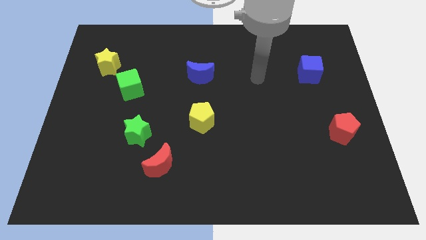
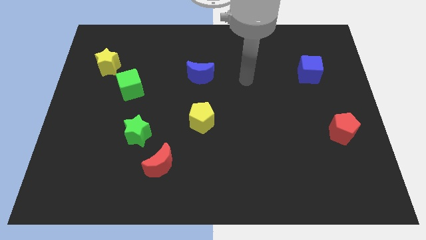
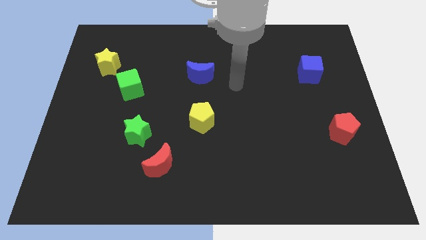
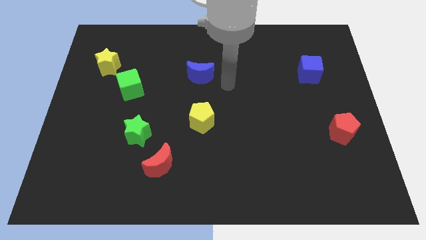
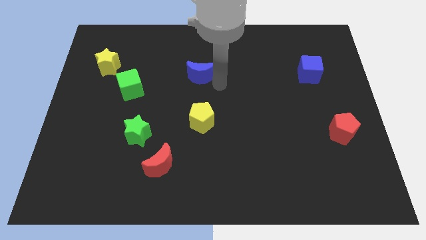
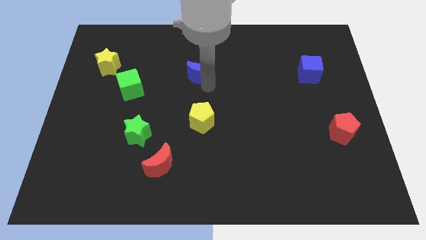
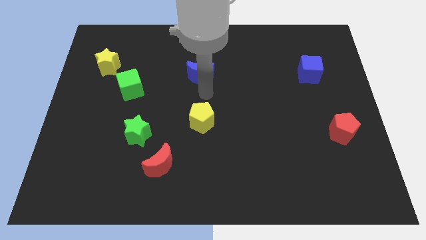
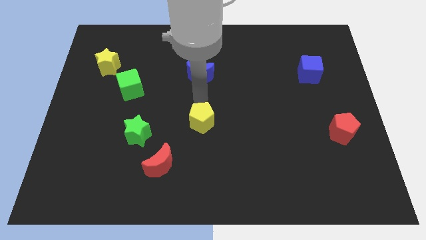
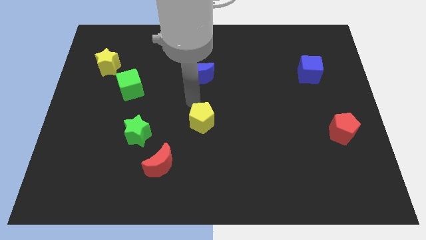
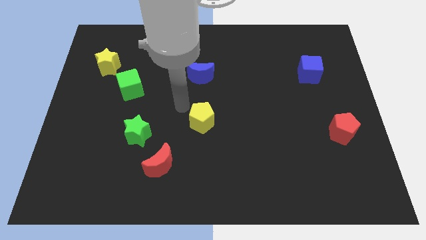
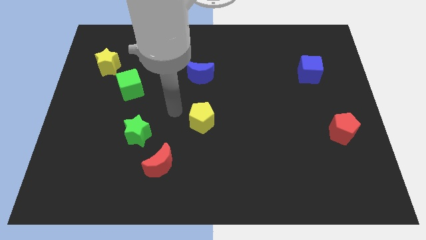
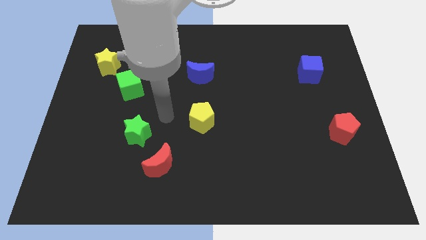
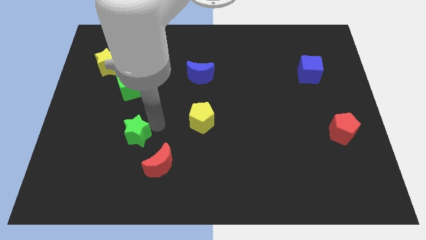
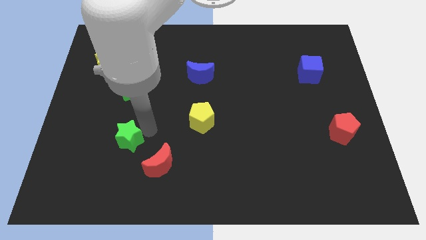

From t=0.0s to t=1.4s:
pull the red moon apart from the green star

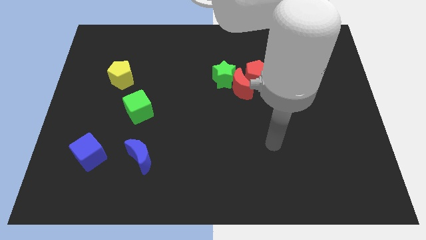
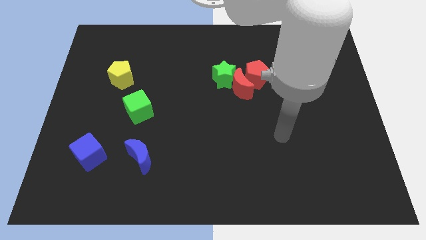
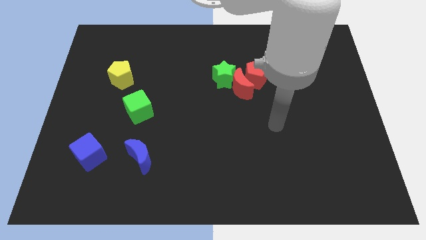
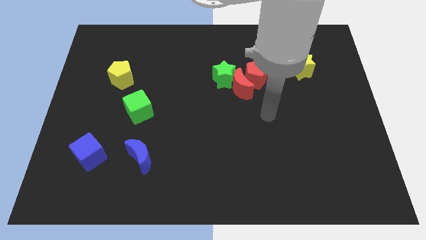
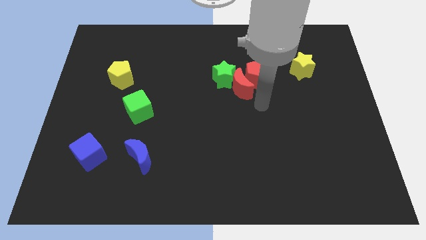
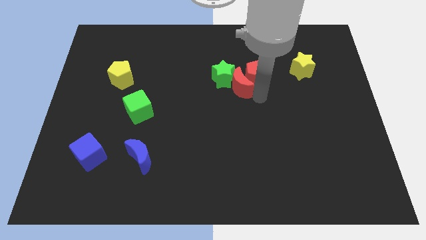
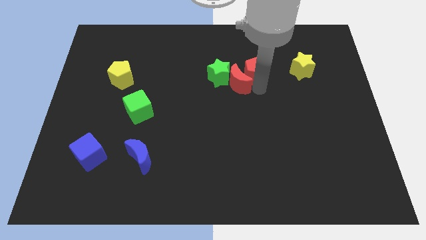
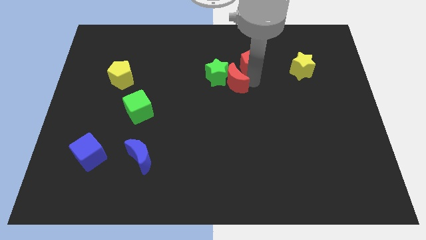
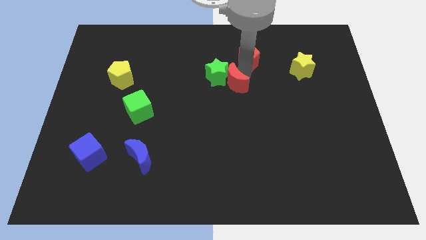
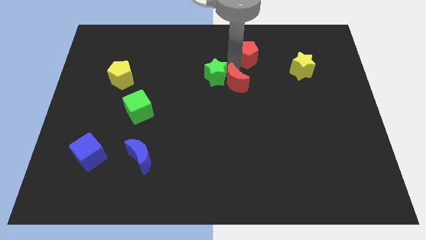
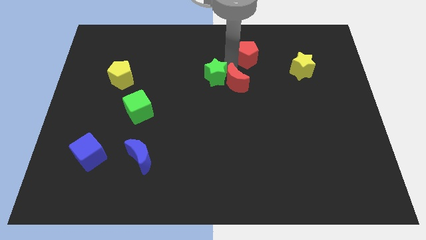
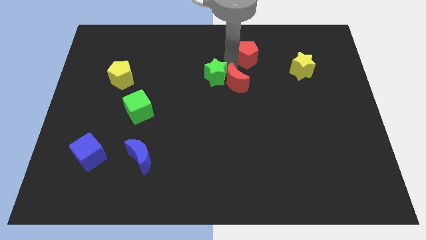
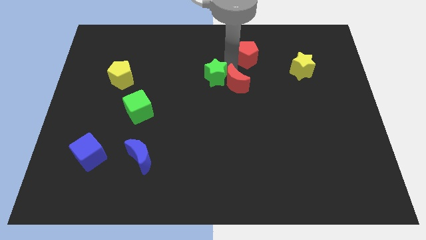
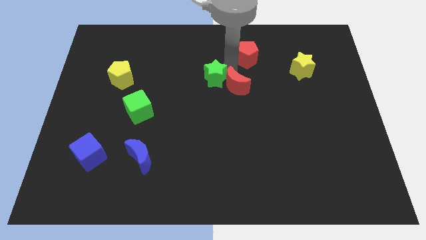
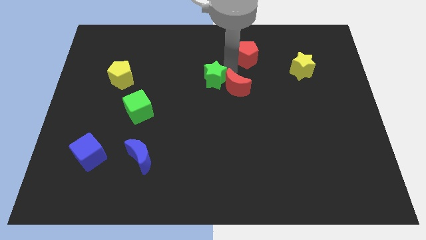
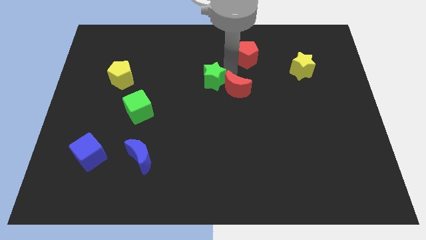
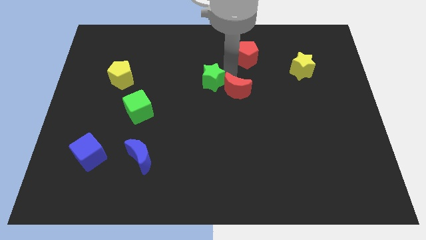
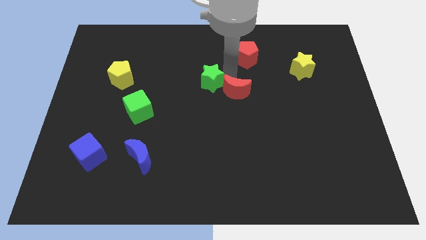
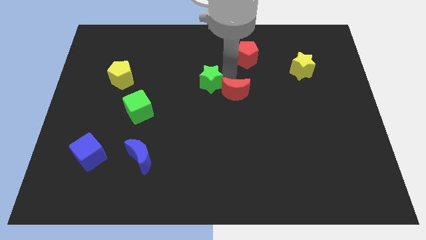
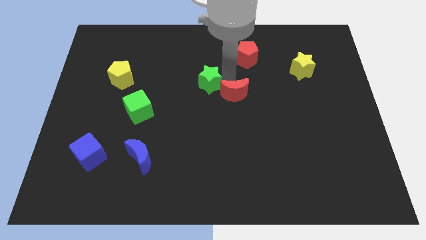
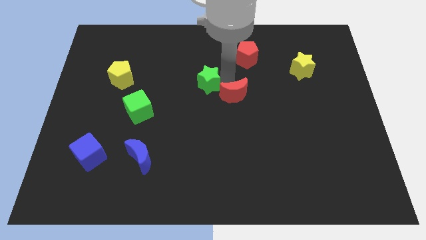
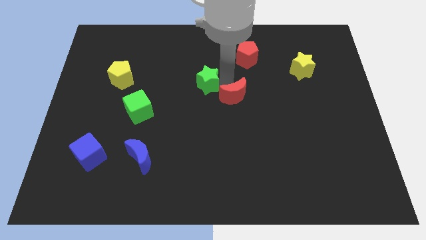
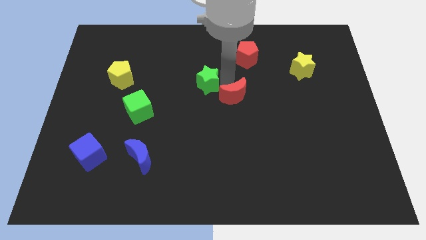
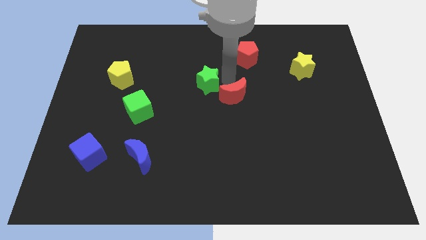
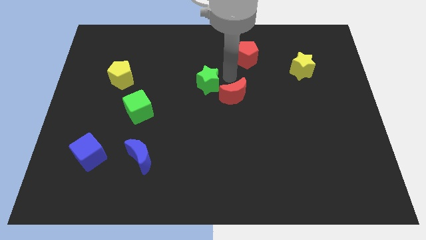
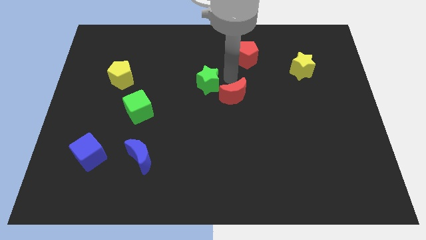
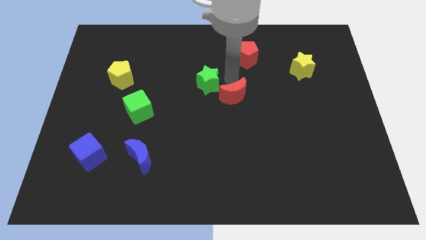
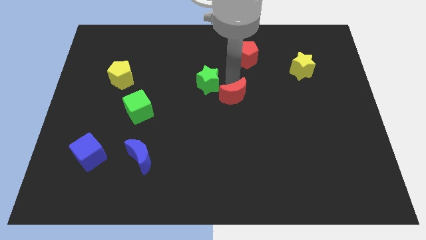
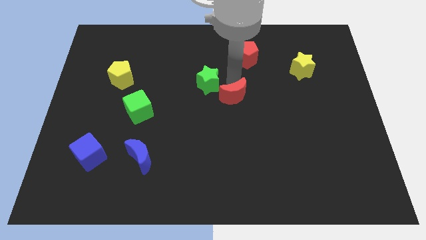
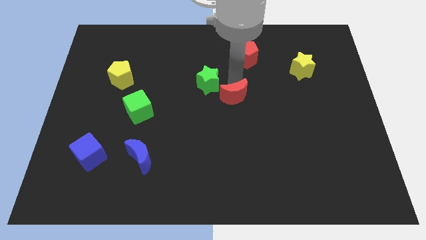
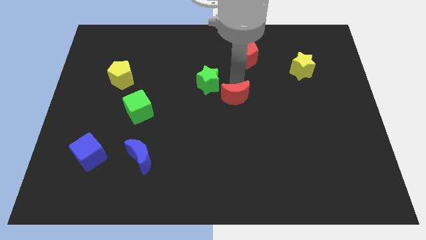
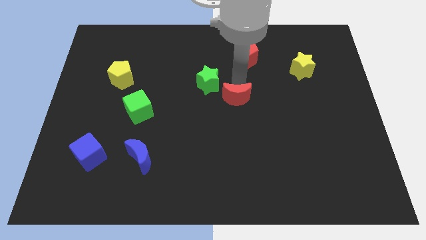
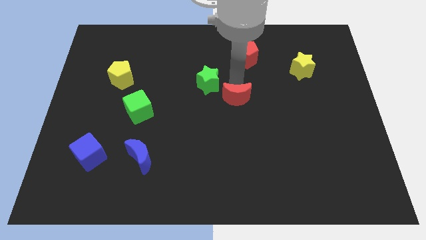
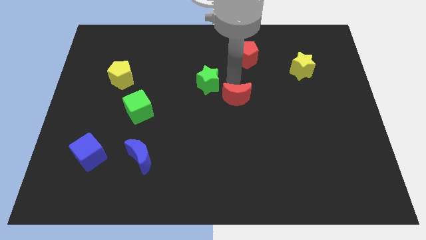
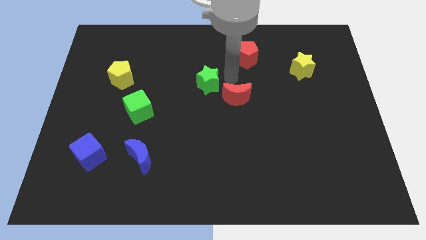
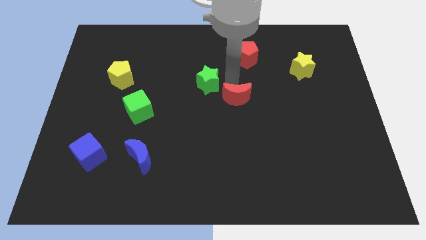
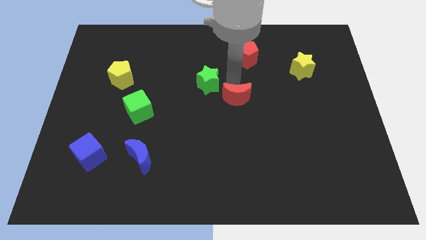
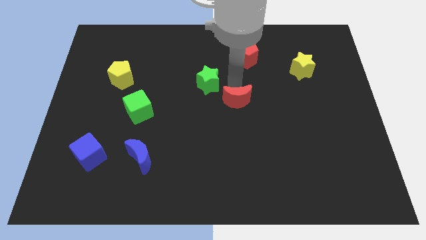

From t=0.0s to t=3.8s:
separate the red moon from the red pentagon and green star

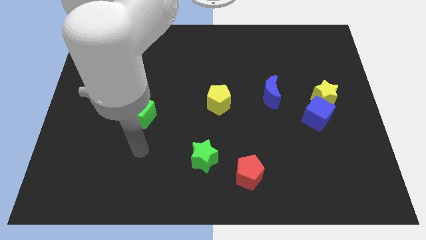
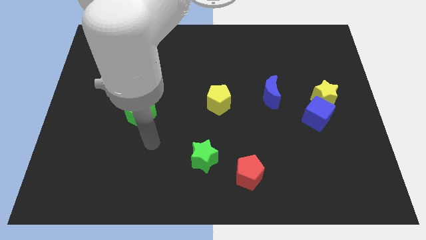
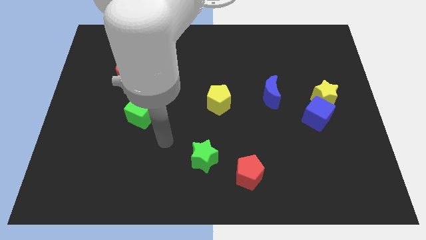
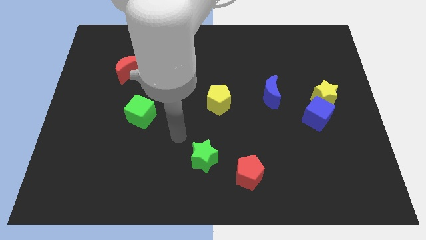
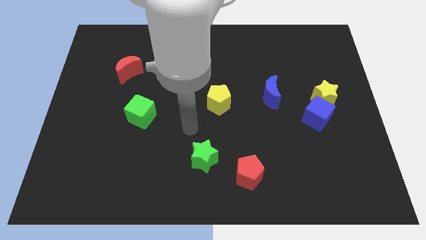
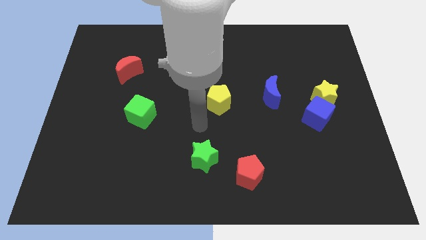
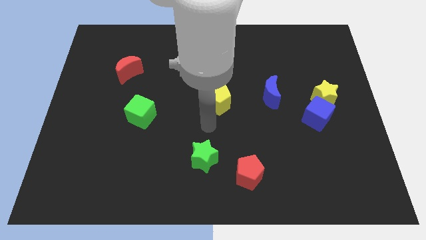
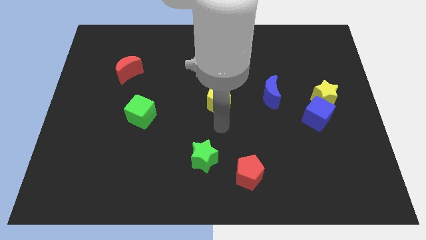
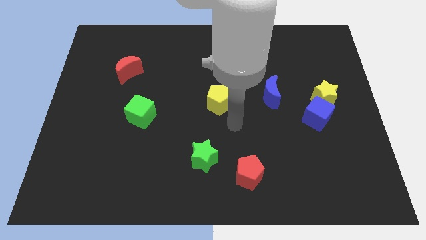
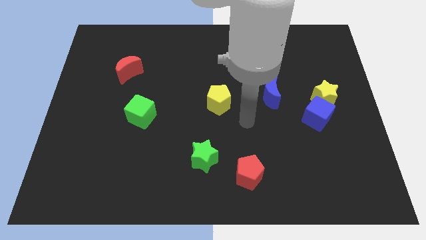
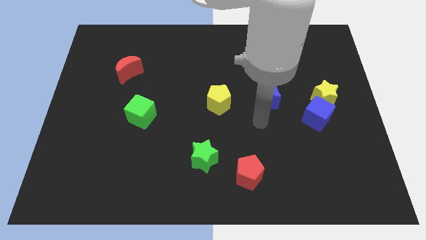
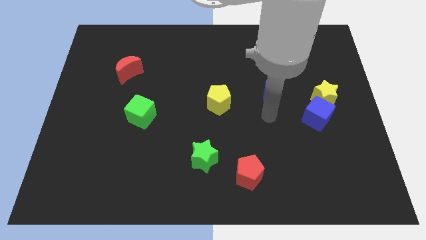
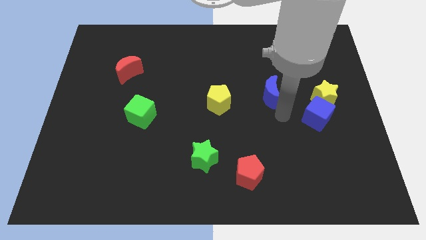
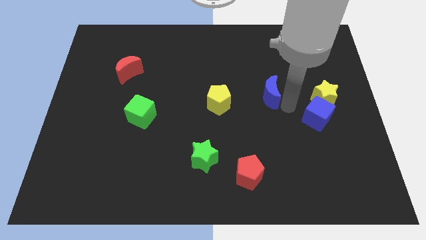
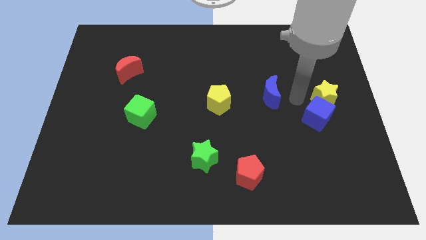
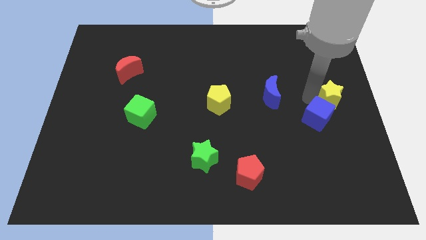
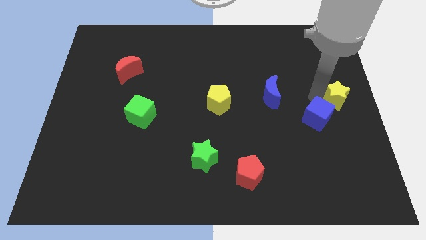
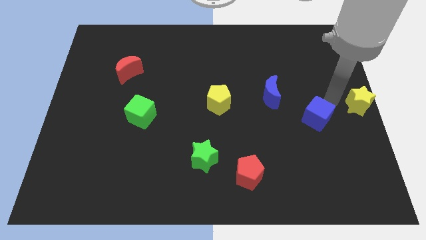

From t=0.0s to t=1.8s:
move the blue cube away from the yellow star

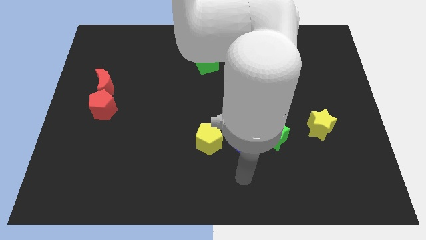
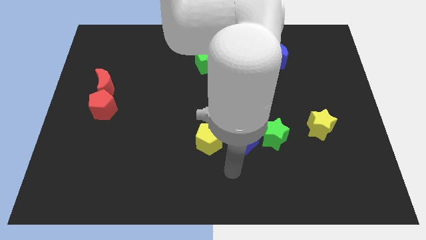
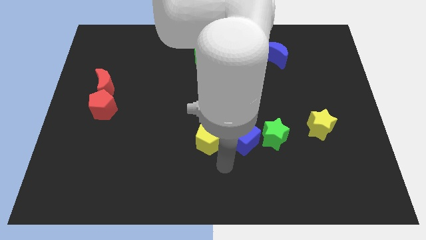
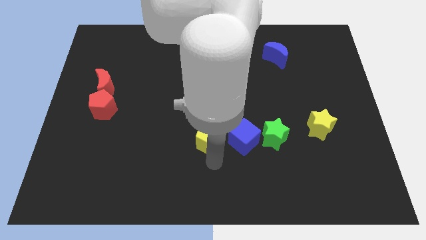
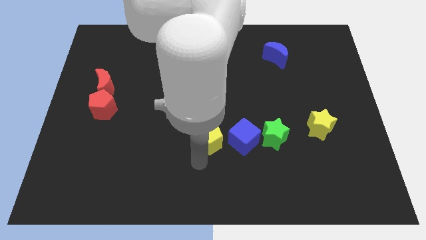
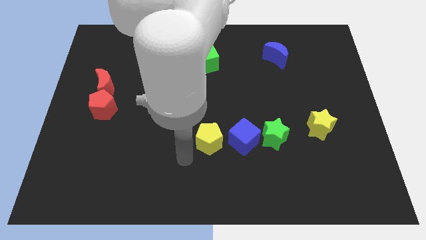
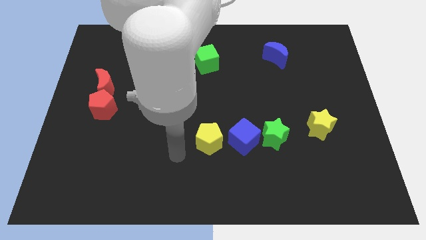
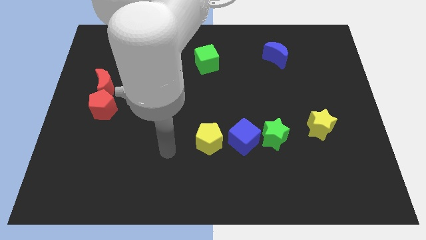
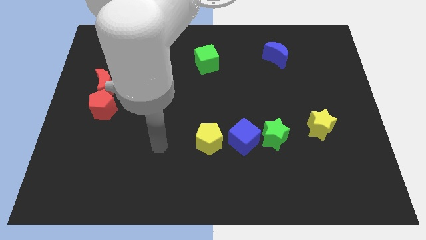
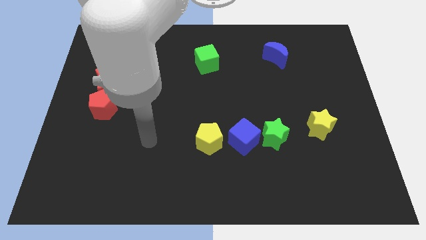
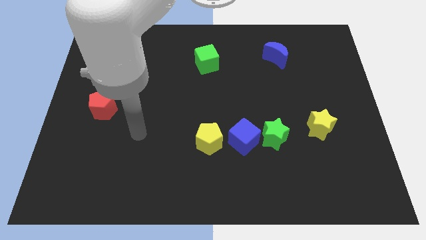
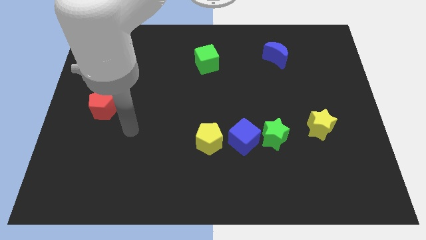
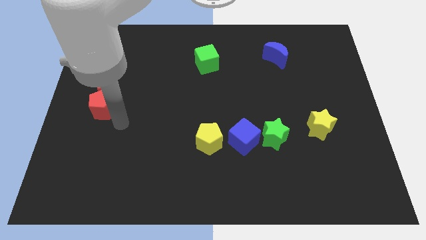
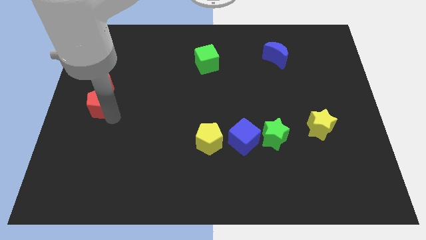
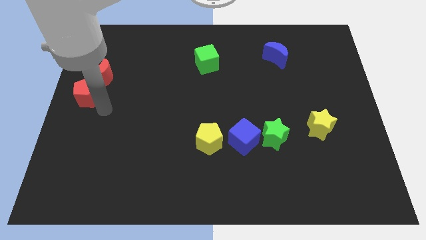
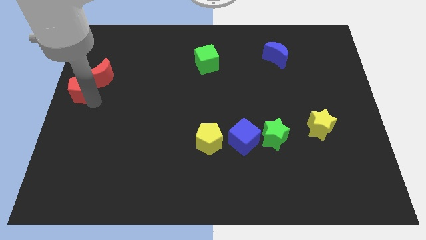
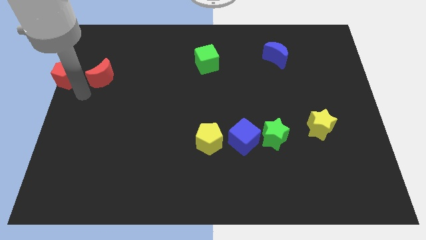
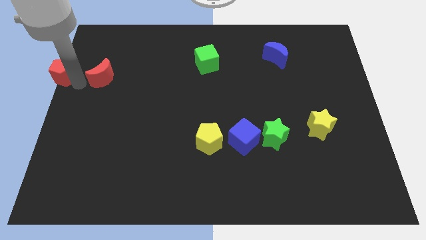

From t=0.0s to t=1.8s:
move the red moon away from the red pentagon

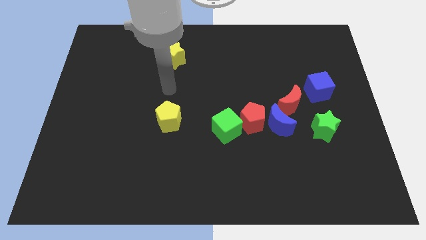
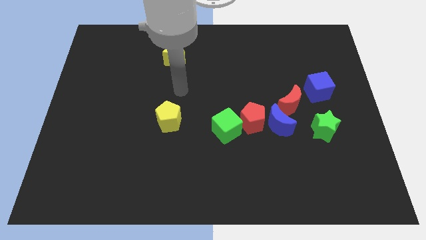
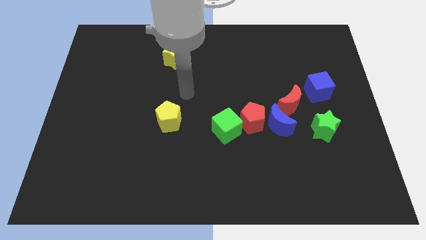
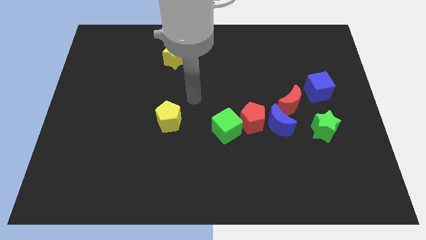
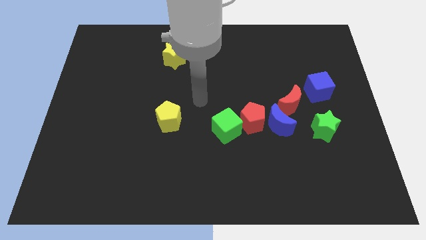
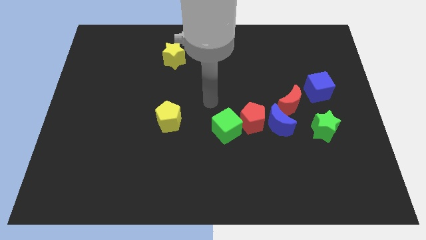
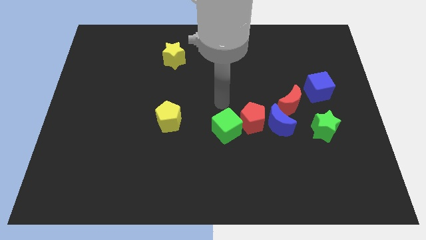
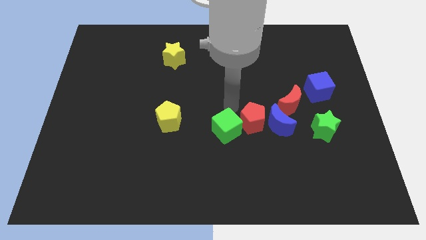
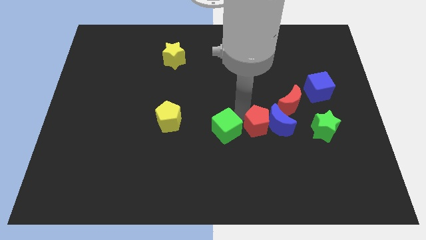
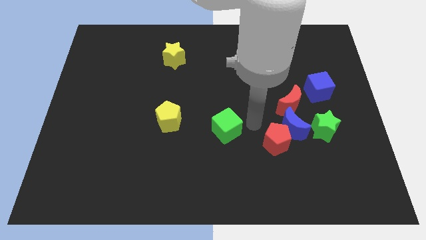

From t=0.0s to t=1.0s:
move the green cube away from the red pentagon
